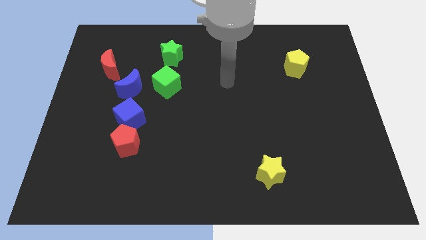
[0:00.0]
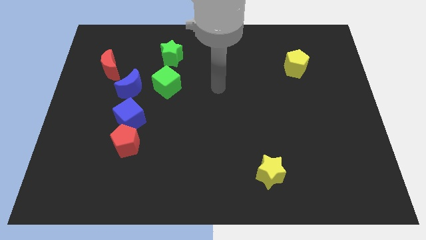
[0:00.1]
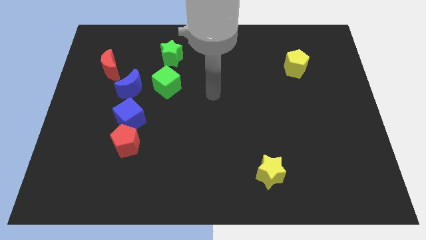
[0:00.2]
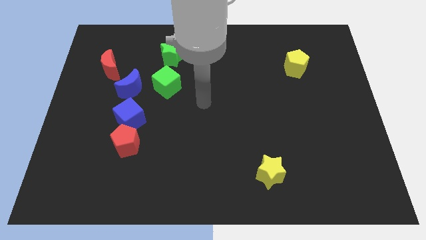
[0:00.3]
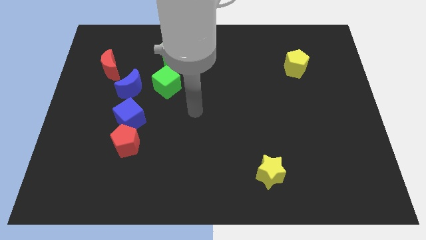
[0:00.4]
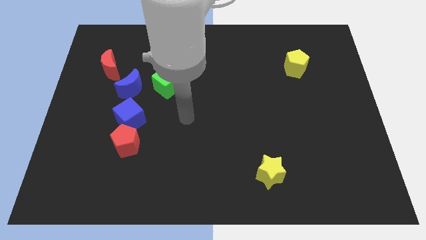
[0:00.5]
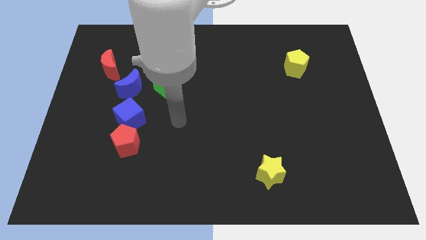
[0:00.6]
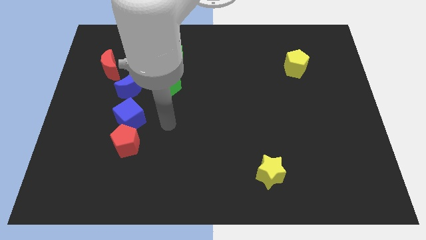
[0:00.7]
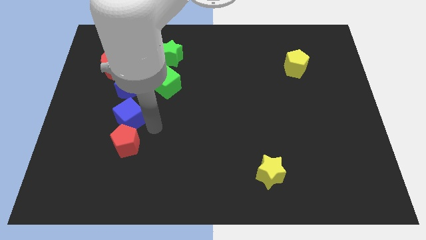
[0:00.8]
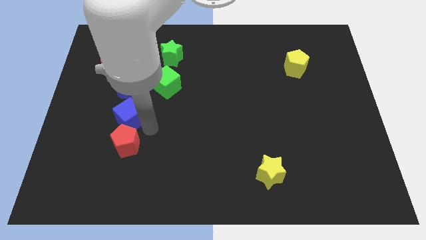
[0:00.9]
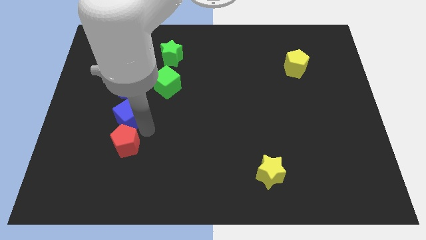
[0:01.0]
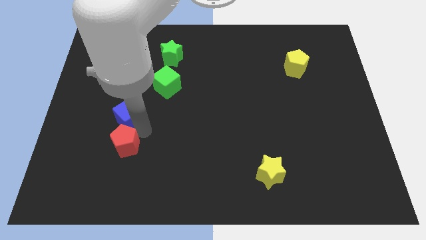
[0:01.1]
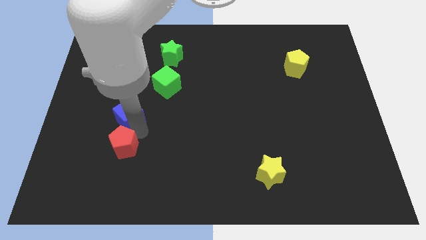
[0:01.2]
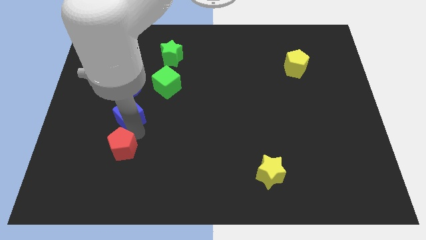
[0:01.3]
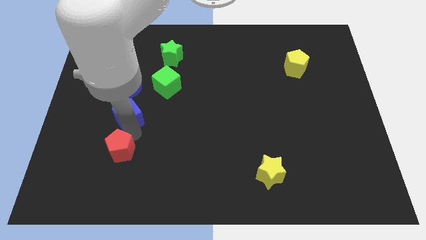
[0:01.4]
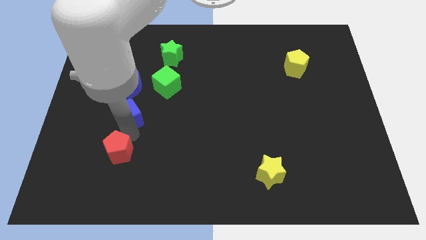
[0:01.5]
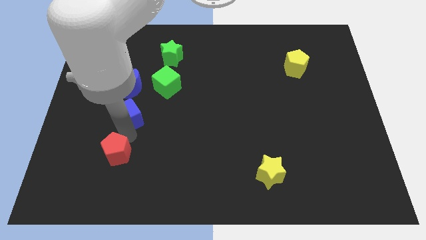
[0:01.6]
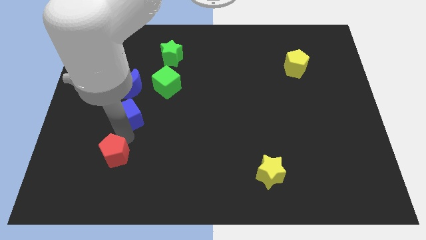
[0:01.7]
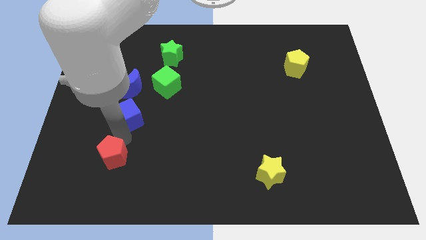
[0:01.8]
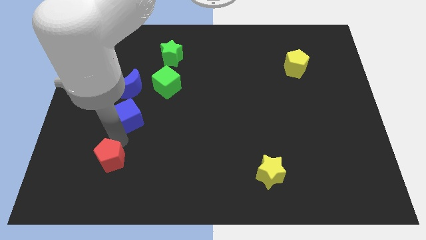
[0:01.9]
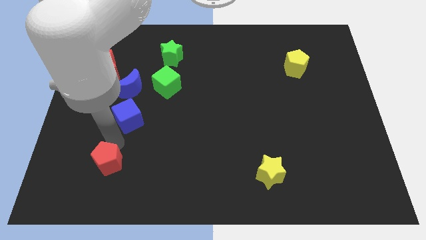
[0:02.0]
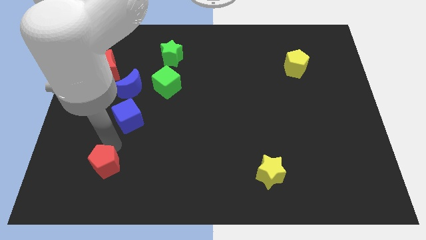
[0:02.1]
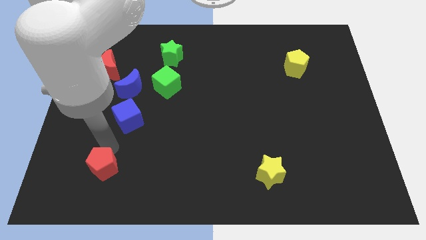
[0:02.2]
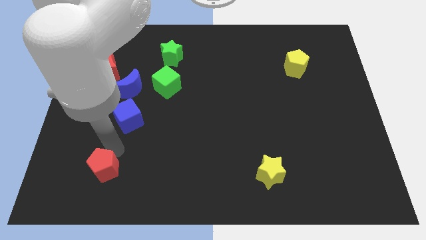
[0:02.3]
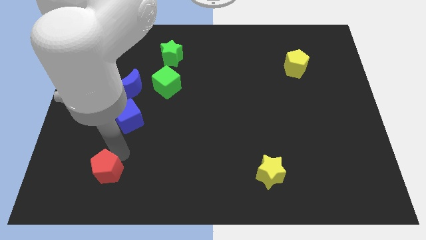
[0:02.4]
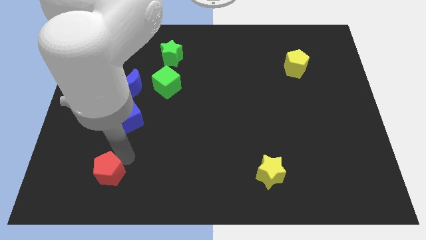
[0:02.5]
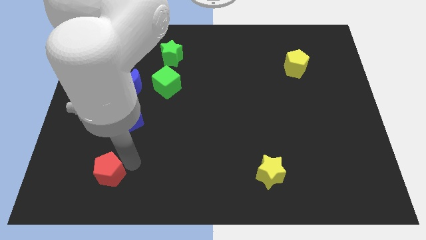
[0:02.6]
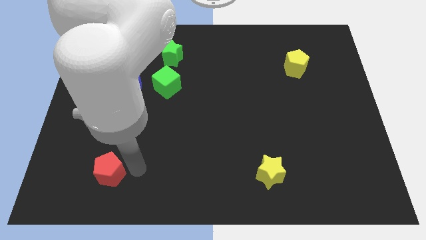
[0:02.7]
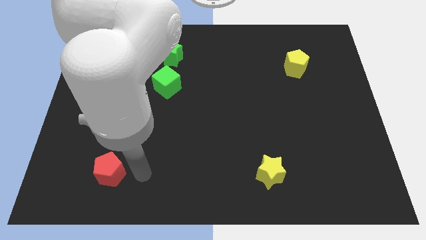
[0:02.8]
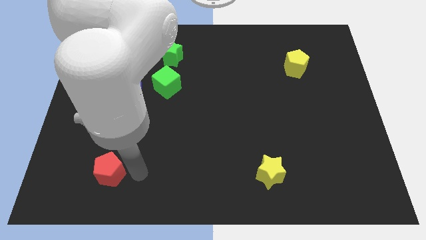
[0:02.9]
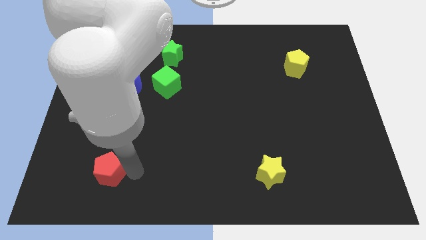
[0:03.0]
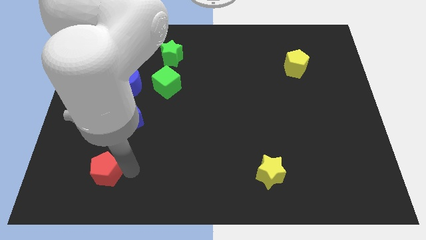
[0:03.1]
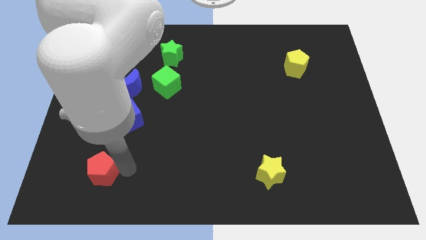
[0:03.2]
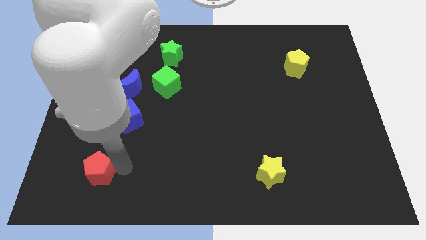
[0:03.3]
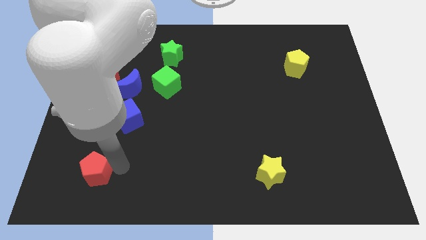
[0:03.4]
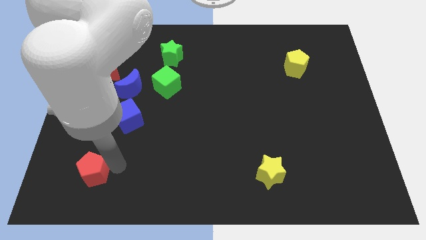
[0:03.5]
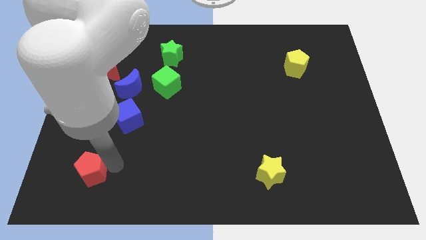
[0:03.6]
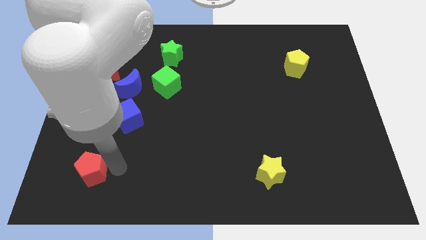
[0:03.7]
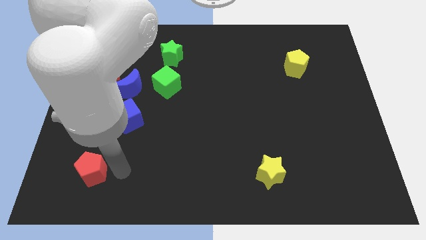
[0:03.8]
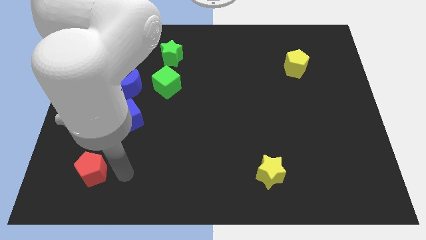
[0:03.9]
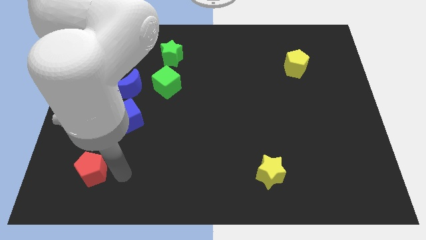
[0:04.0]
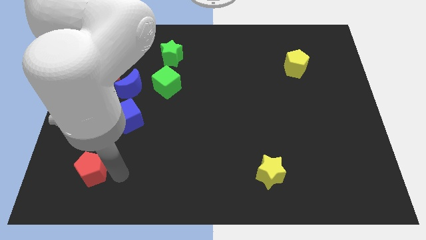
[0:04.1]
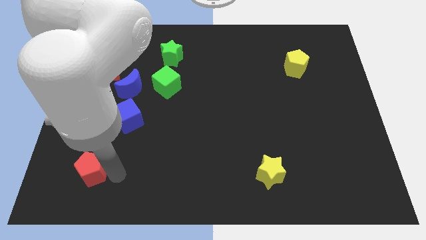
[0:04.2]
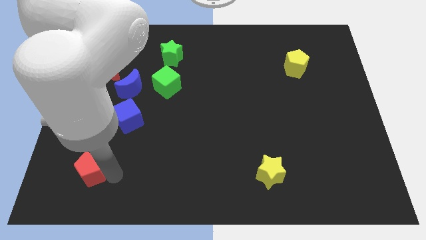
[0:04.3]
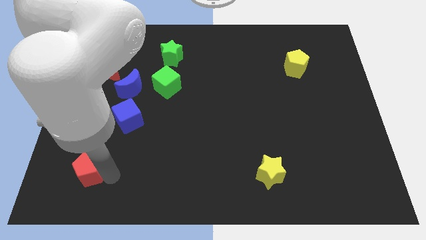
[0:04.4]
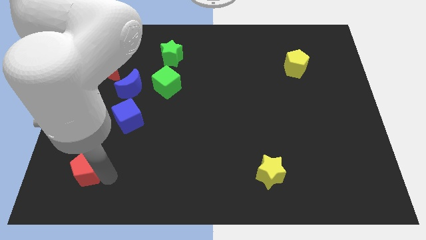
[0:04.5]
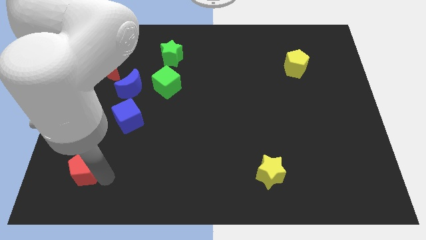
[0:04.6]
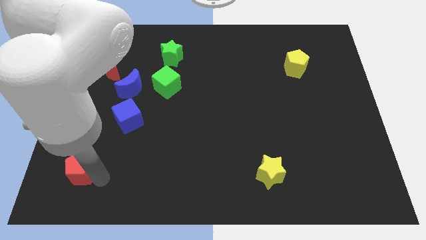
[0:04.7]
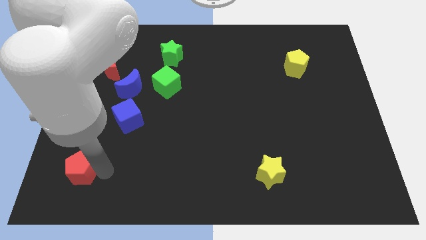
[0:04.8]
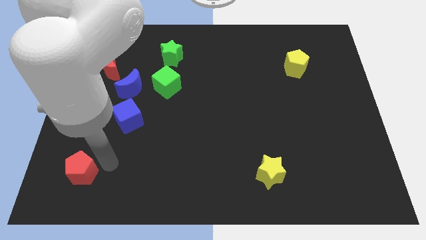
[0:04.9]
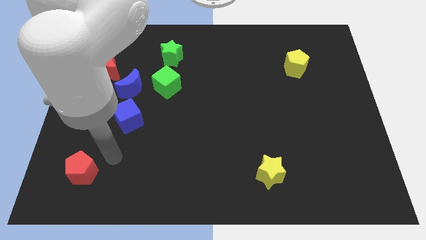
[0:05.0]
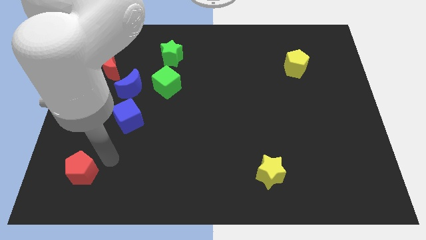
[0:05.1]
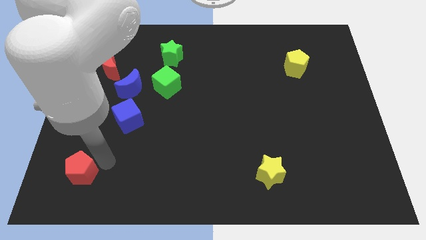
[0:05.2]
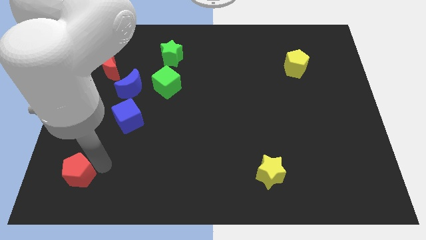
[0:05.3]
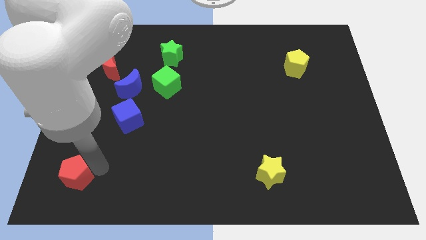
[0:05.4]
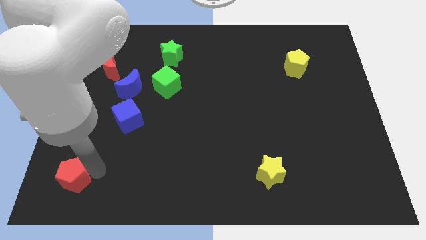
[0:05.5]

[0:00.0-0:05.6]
push the red pentagon to the bottom left

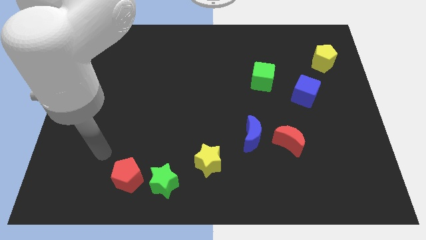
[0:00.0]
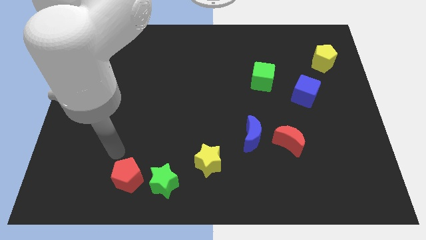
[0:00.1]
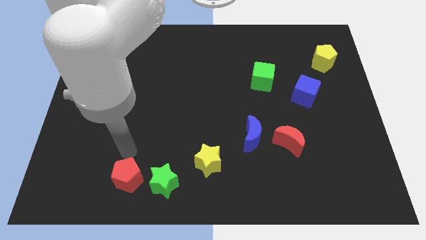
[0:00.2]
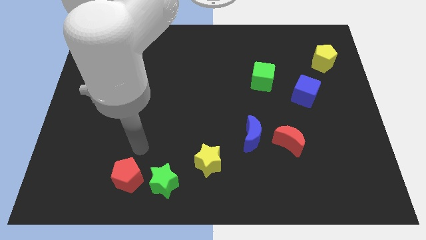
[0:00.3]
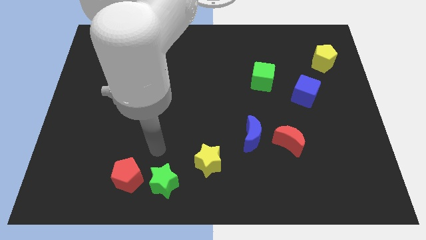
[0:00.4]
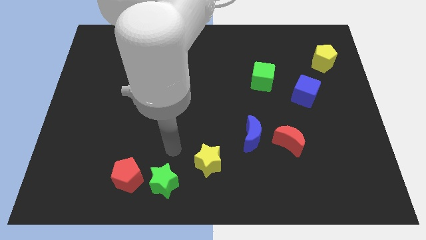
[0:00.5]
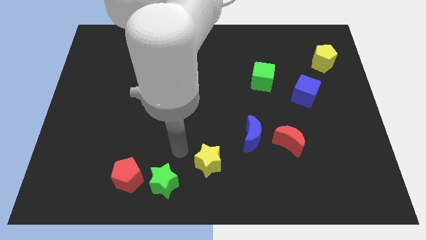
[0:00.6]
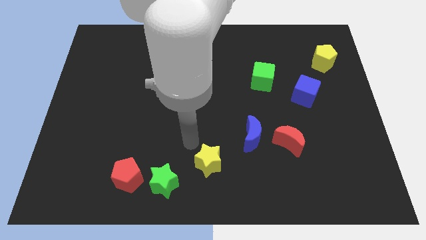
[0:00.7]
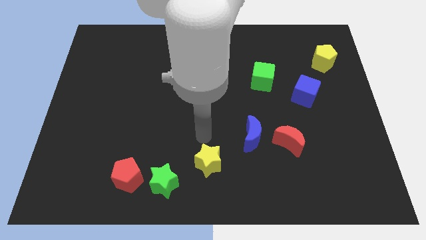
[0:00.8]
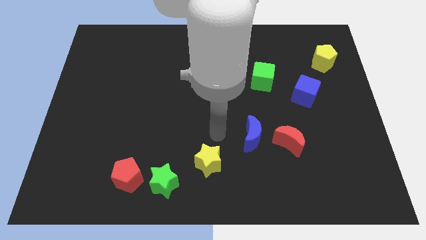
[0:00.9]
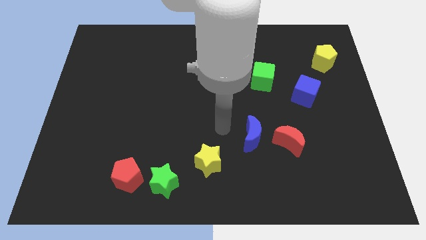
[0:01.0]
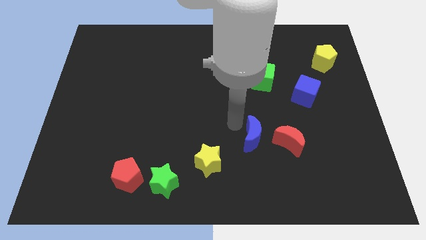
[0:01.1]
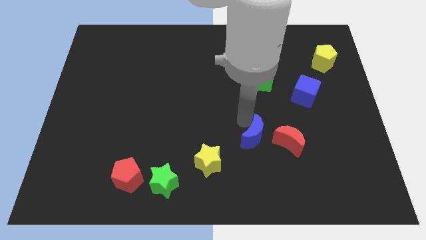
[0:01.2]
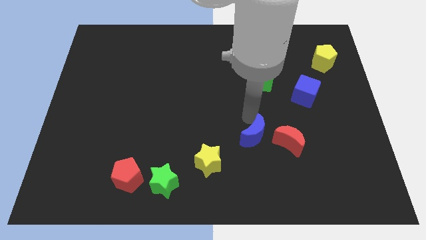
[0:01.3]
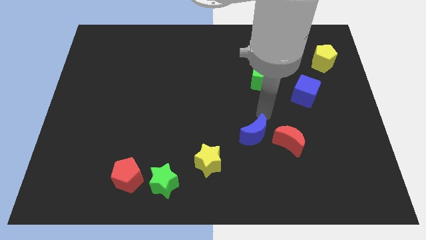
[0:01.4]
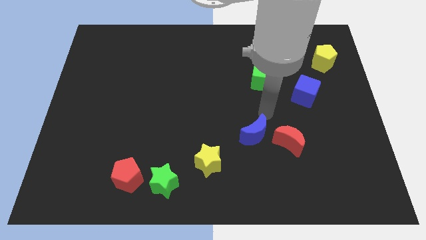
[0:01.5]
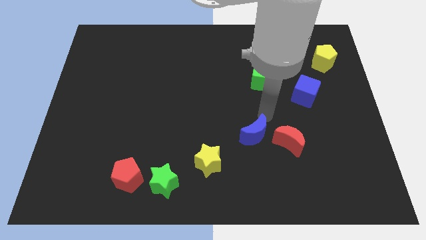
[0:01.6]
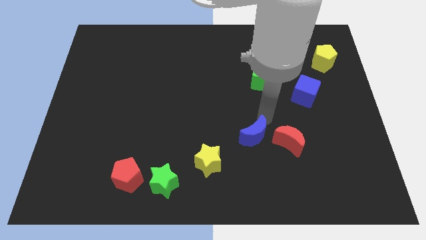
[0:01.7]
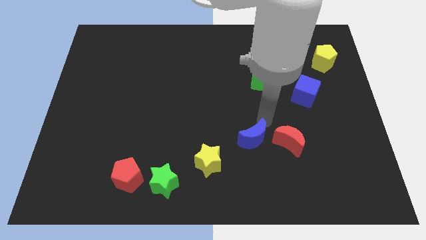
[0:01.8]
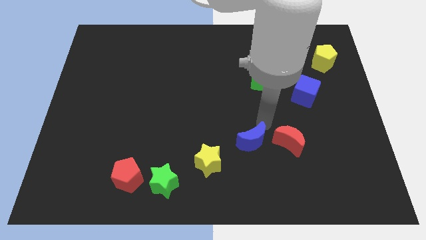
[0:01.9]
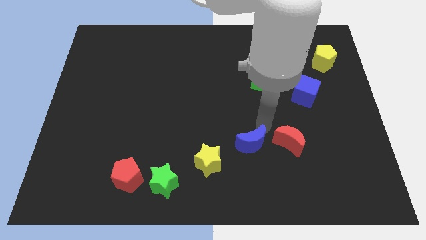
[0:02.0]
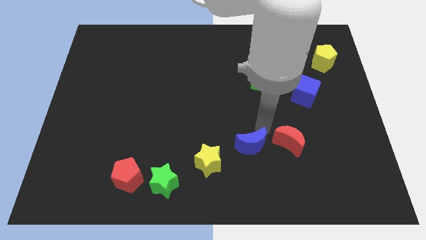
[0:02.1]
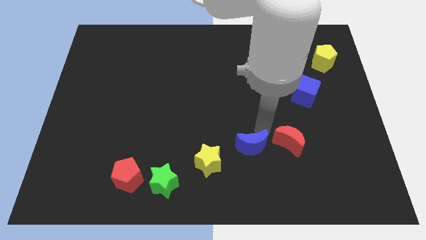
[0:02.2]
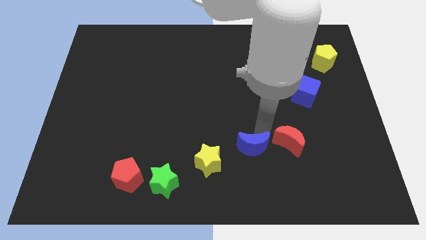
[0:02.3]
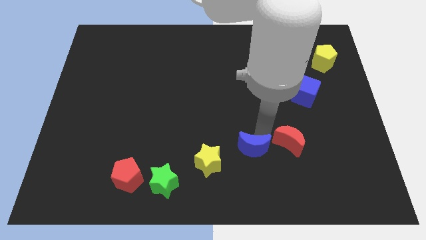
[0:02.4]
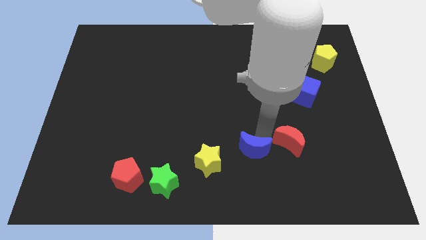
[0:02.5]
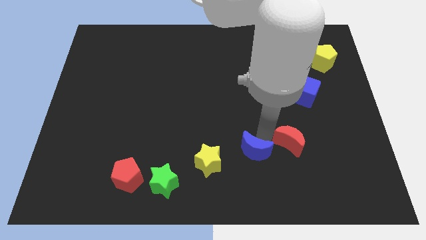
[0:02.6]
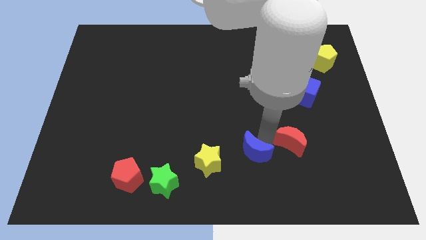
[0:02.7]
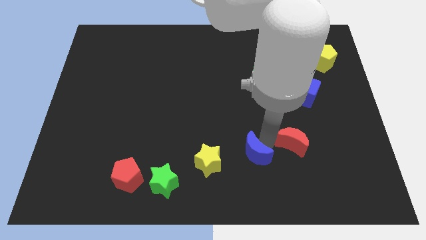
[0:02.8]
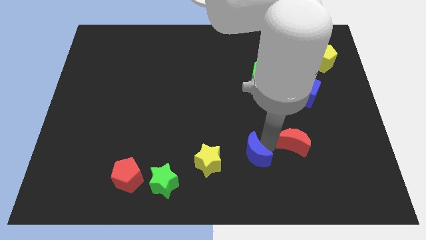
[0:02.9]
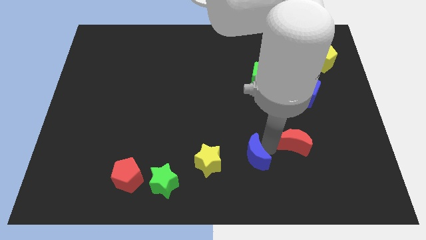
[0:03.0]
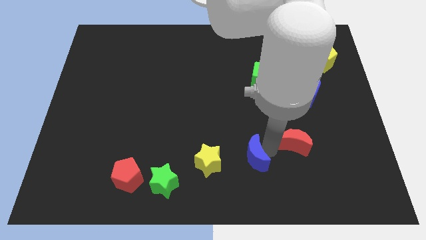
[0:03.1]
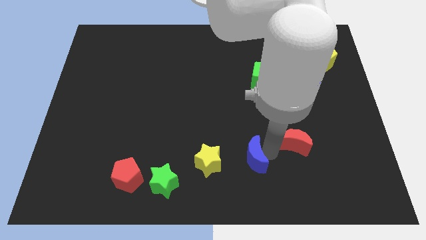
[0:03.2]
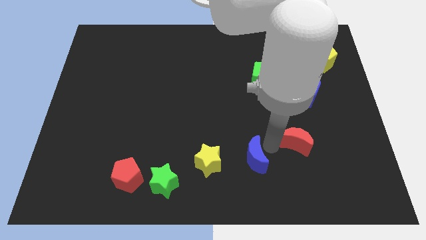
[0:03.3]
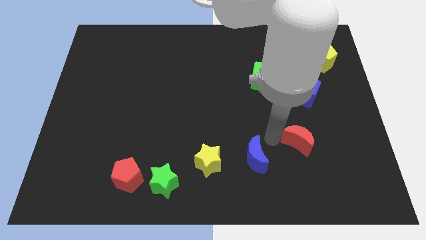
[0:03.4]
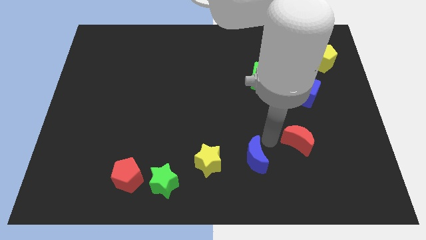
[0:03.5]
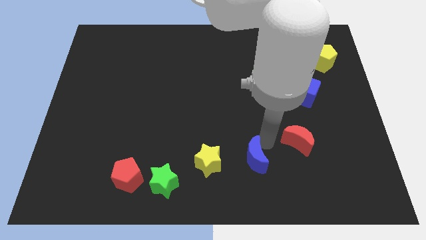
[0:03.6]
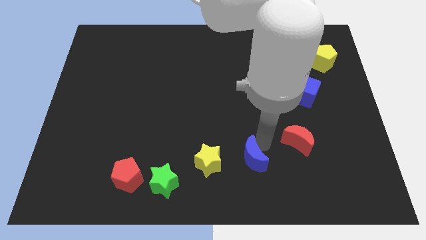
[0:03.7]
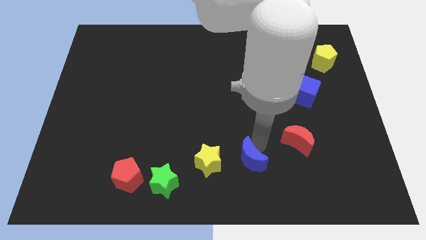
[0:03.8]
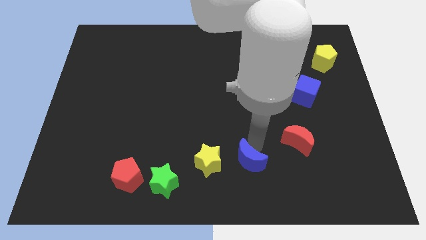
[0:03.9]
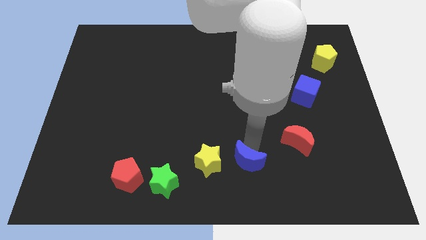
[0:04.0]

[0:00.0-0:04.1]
put the blue moon to the bottom side
